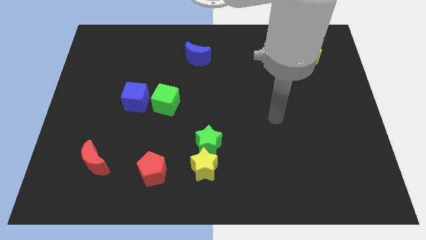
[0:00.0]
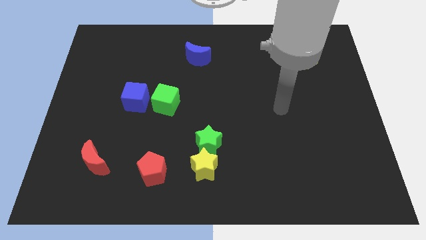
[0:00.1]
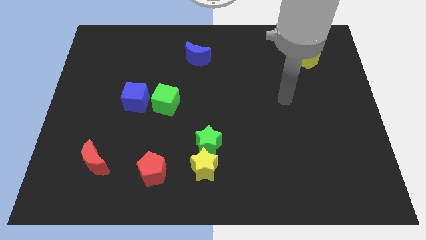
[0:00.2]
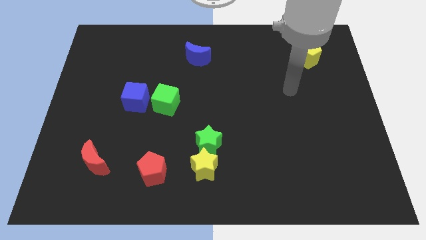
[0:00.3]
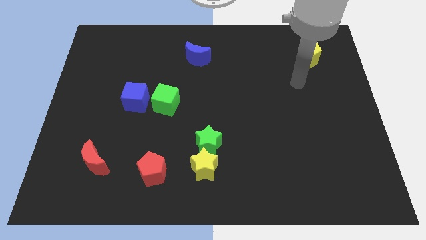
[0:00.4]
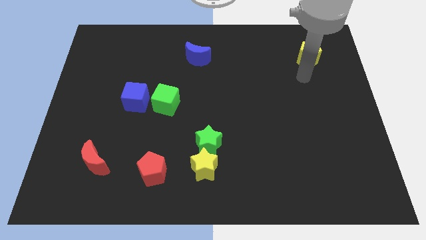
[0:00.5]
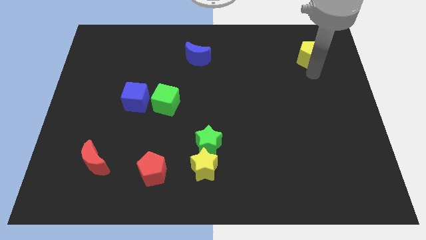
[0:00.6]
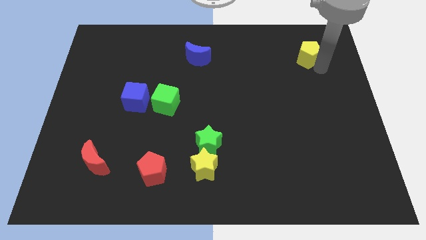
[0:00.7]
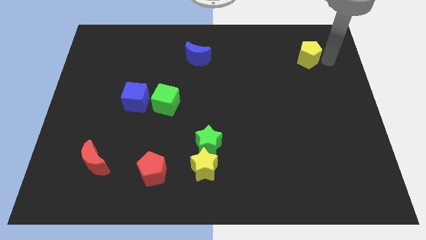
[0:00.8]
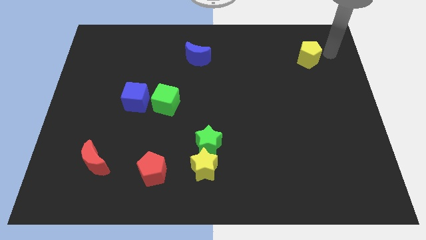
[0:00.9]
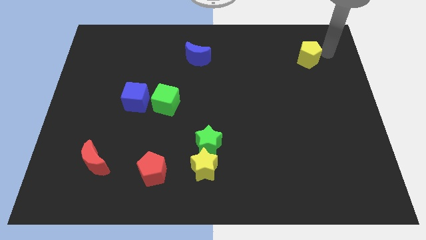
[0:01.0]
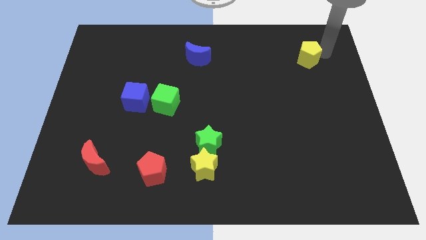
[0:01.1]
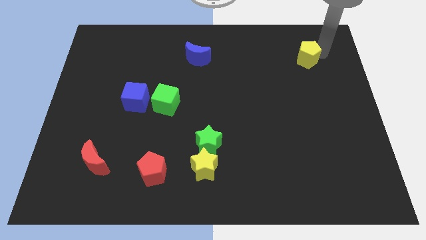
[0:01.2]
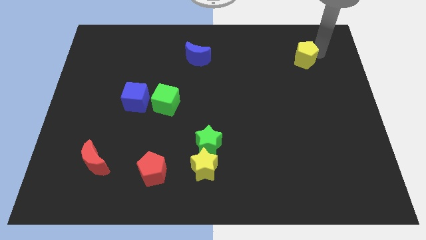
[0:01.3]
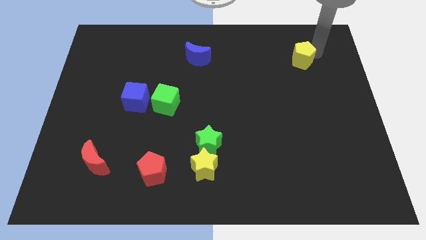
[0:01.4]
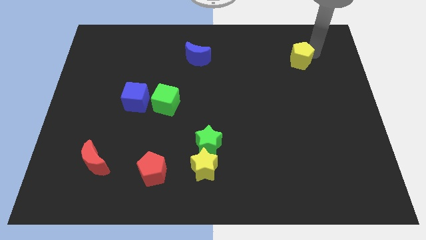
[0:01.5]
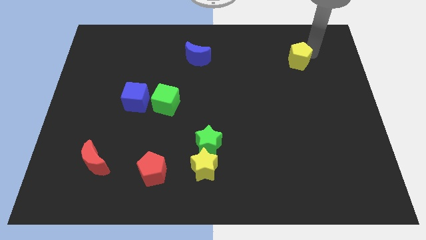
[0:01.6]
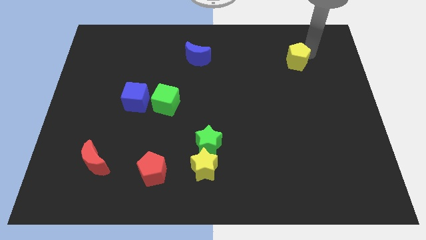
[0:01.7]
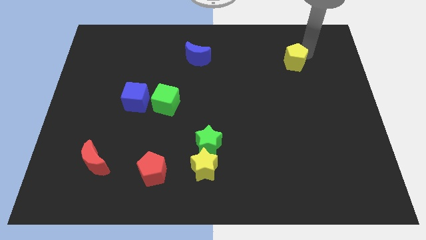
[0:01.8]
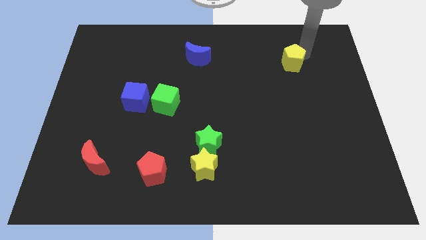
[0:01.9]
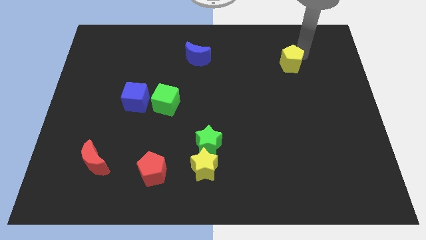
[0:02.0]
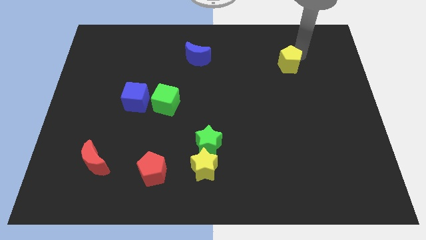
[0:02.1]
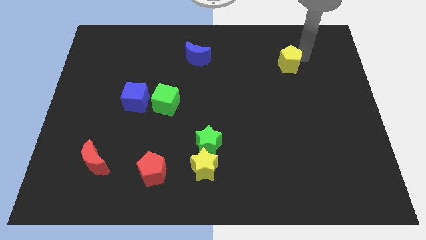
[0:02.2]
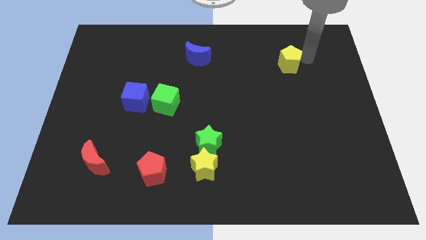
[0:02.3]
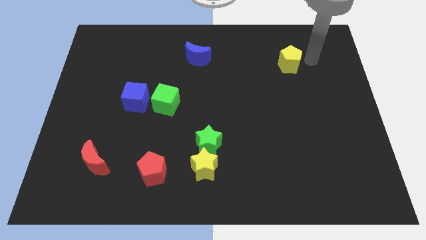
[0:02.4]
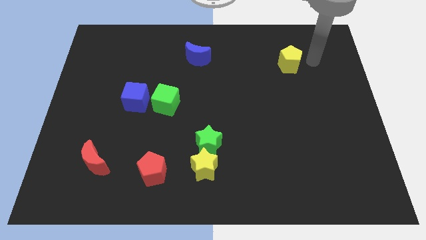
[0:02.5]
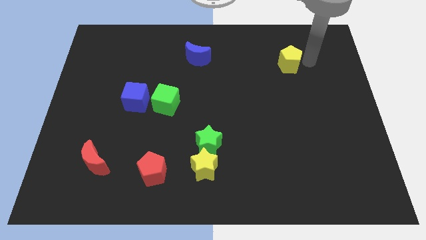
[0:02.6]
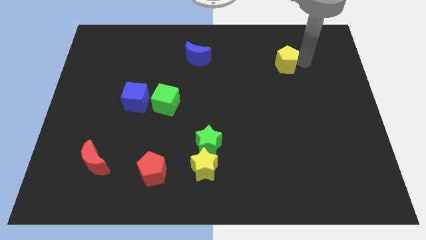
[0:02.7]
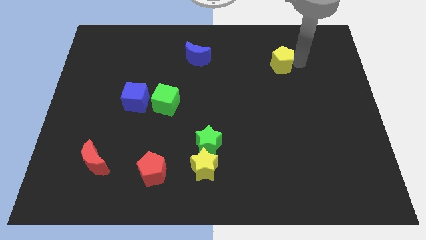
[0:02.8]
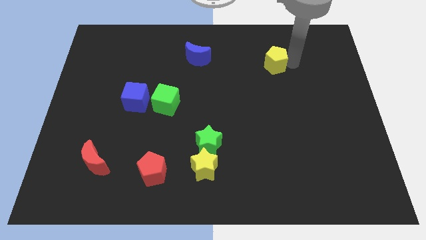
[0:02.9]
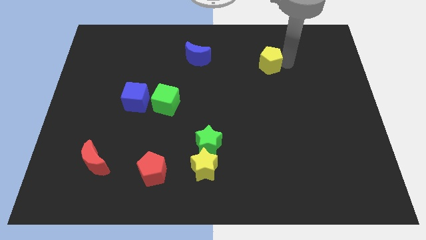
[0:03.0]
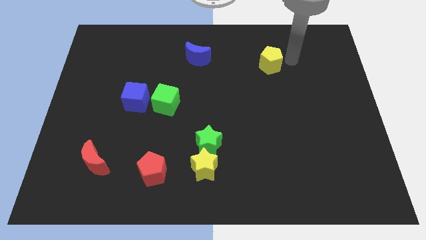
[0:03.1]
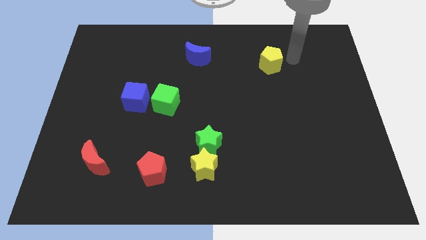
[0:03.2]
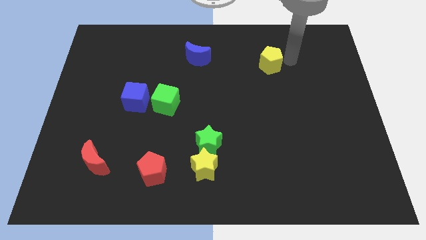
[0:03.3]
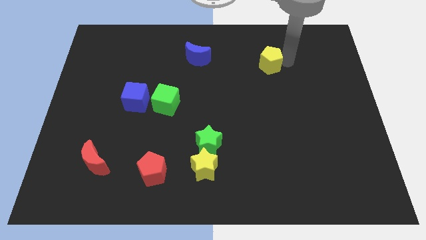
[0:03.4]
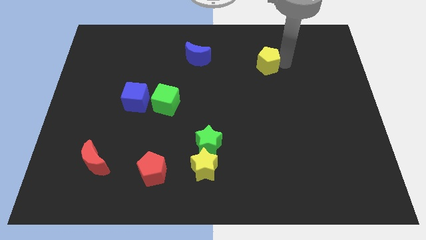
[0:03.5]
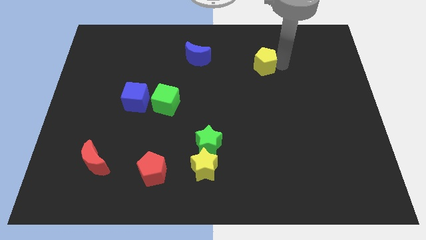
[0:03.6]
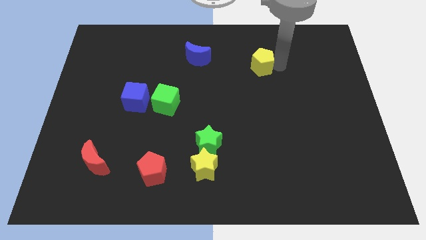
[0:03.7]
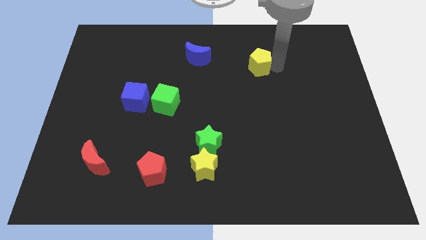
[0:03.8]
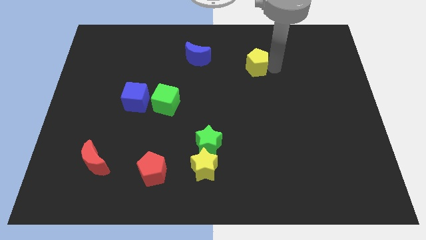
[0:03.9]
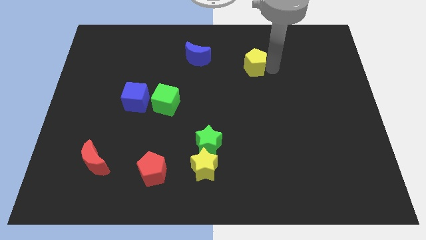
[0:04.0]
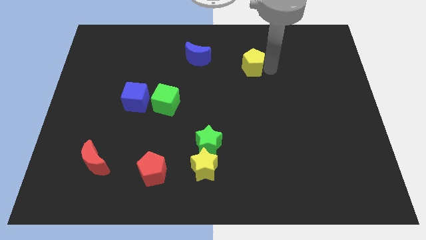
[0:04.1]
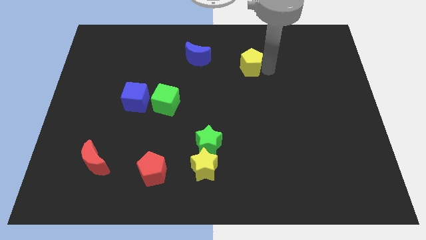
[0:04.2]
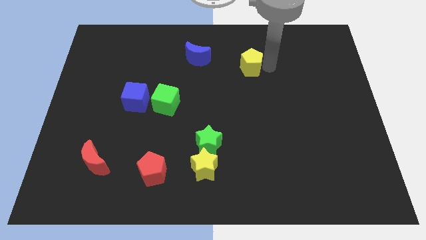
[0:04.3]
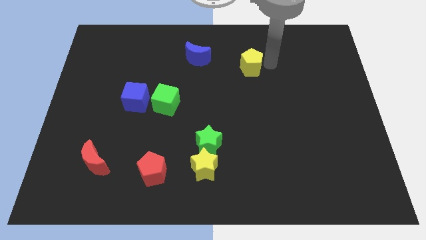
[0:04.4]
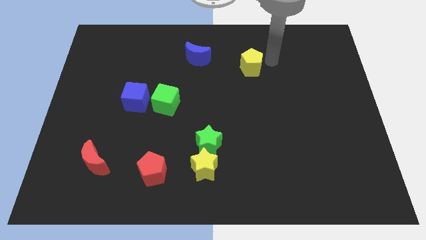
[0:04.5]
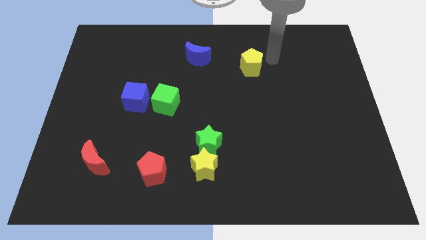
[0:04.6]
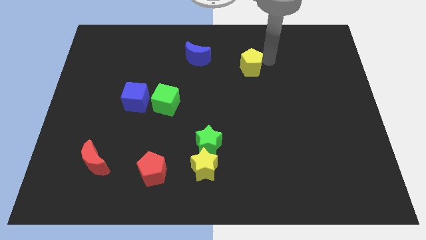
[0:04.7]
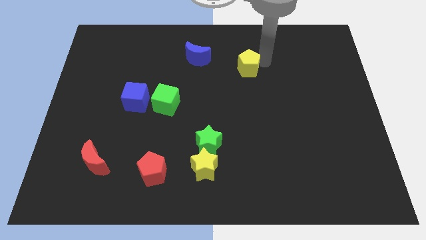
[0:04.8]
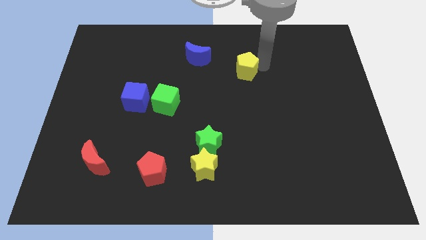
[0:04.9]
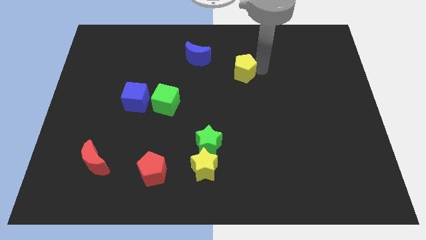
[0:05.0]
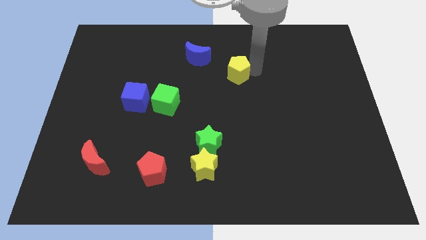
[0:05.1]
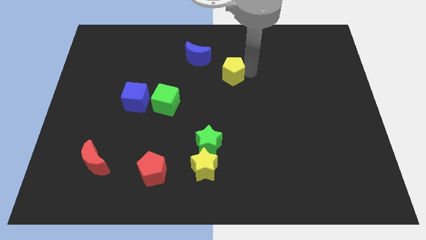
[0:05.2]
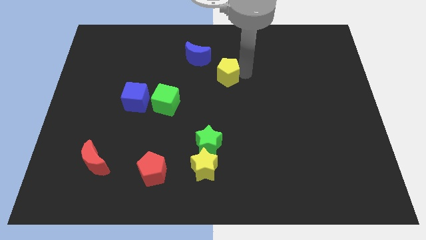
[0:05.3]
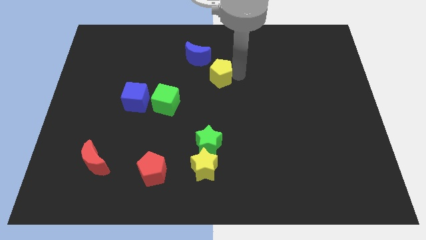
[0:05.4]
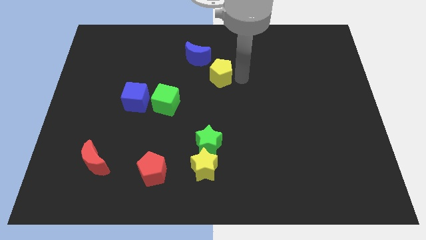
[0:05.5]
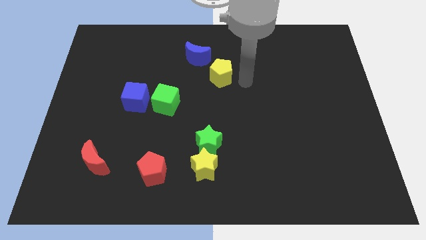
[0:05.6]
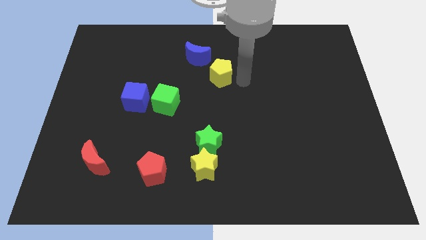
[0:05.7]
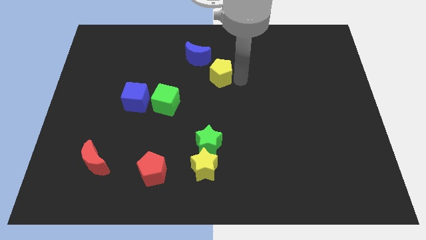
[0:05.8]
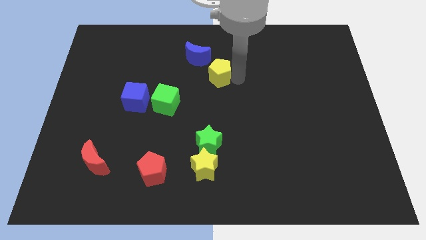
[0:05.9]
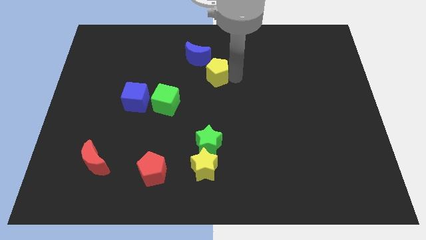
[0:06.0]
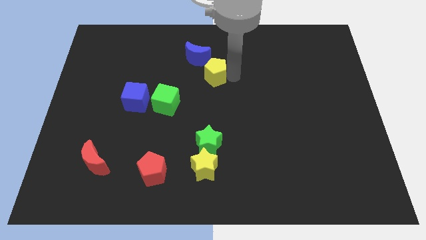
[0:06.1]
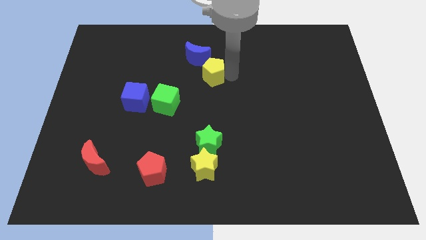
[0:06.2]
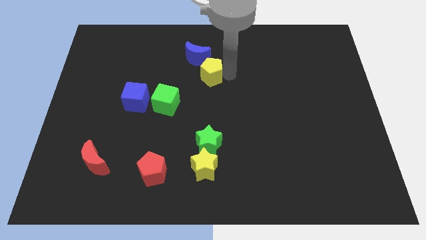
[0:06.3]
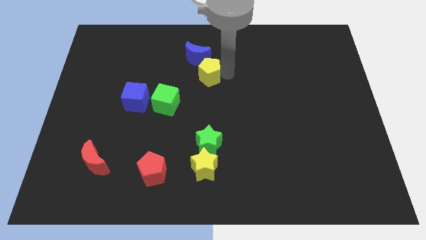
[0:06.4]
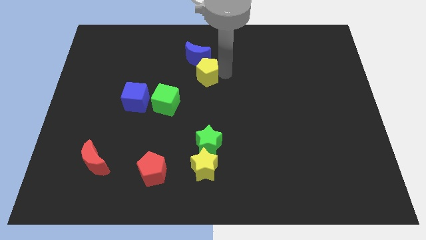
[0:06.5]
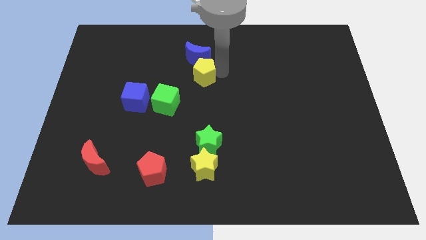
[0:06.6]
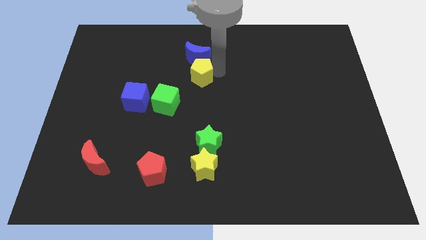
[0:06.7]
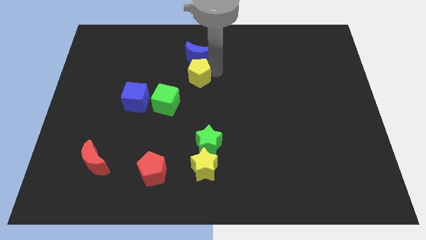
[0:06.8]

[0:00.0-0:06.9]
put the yellow pentagon to the bottom left of the blue moon
